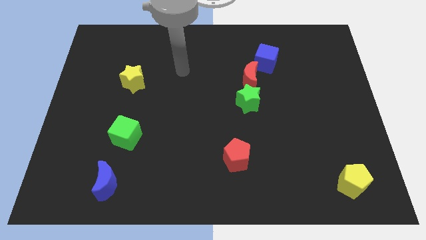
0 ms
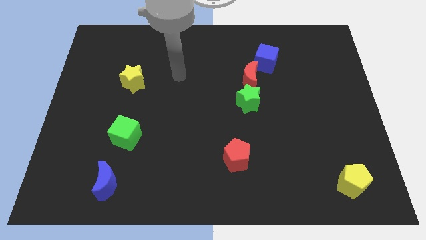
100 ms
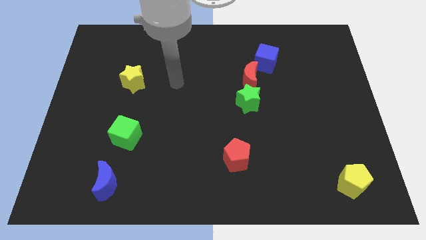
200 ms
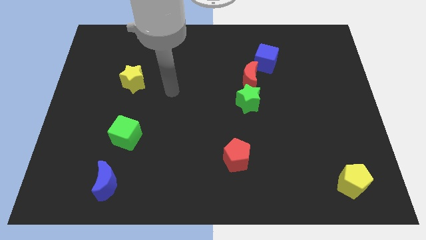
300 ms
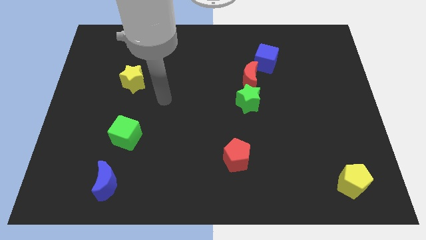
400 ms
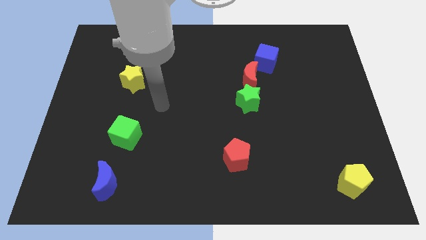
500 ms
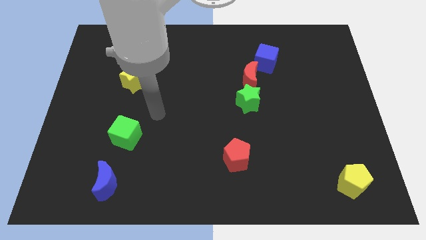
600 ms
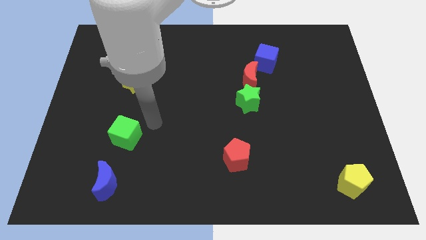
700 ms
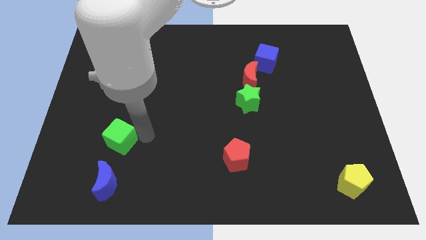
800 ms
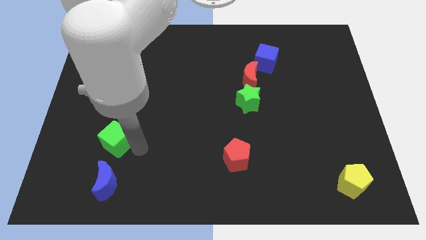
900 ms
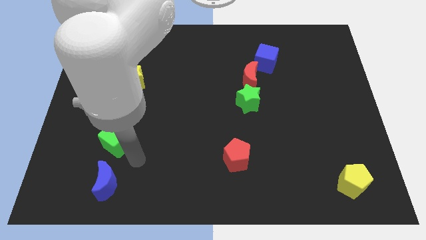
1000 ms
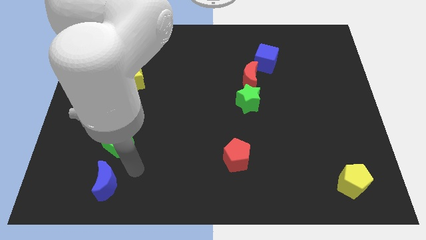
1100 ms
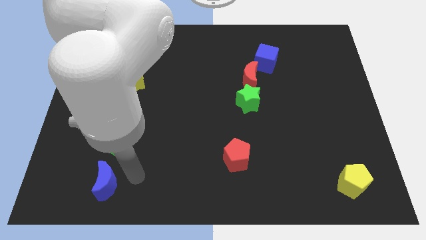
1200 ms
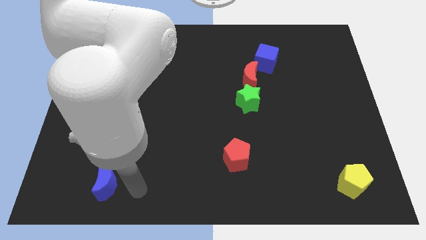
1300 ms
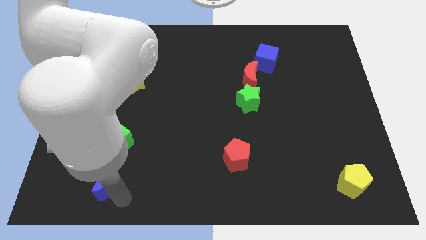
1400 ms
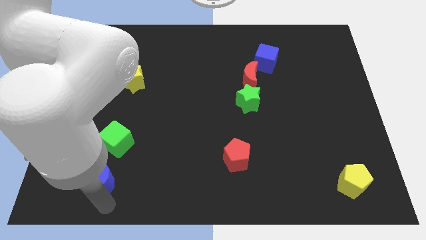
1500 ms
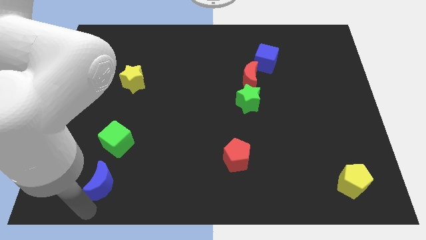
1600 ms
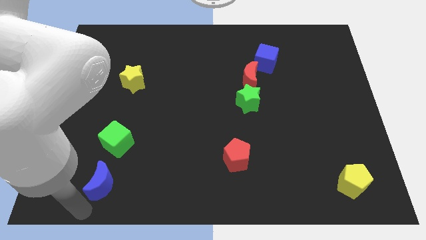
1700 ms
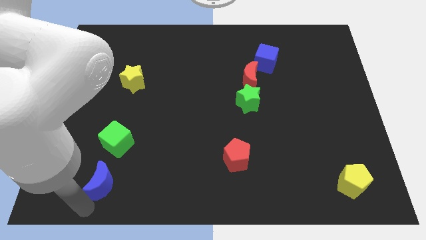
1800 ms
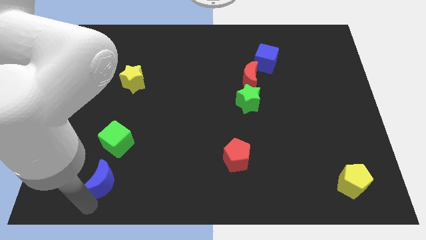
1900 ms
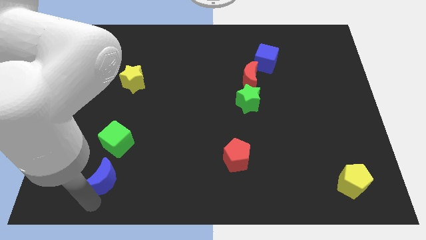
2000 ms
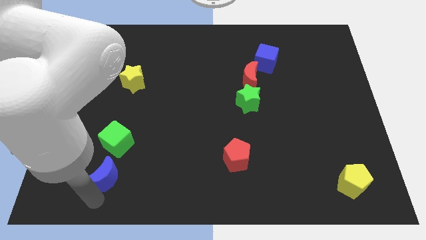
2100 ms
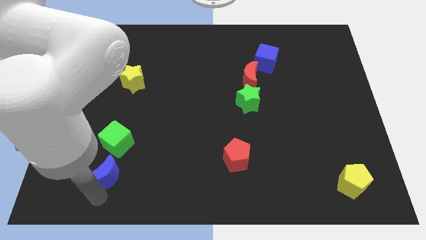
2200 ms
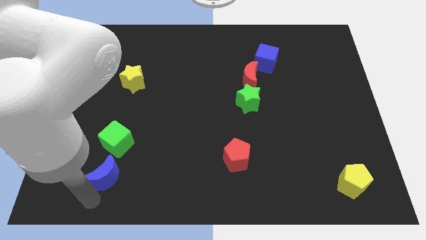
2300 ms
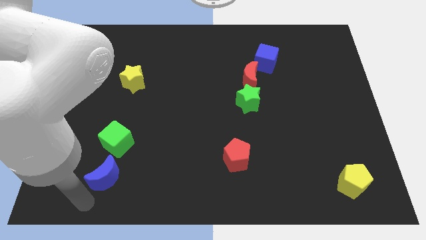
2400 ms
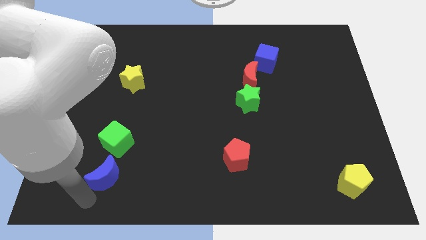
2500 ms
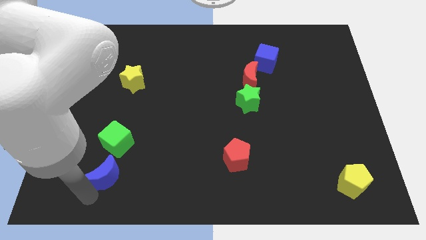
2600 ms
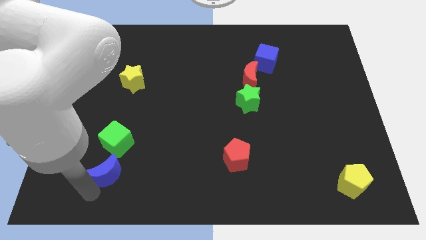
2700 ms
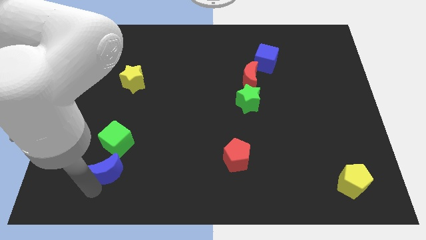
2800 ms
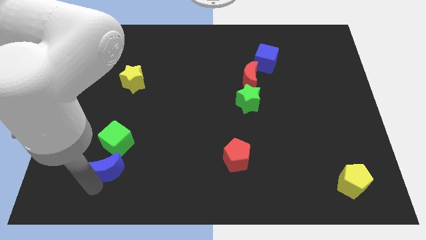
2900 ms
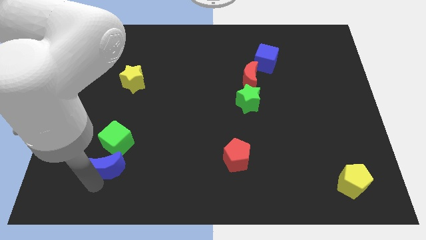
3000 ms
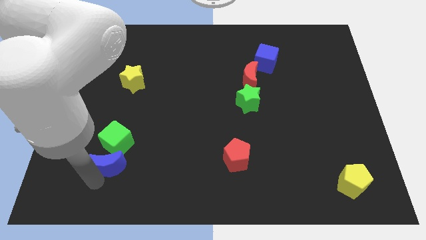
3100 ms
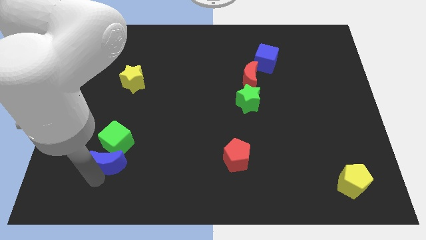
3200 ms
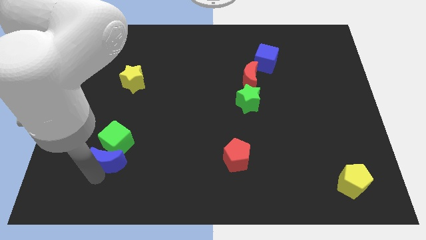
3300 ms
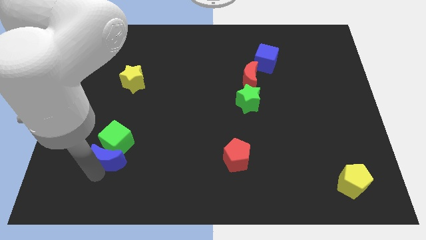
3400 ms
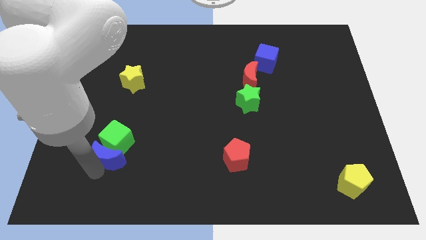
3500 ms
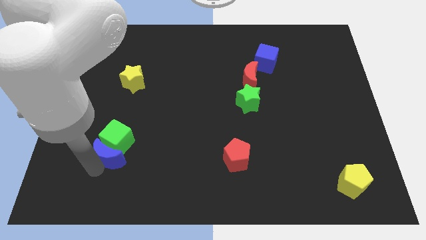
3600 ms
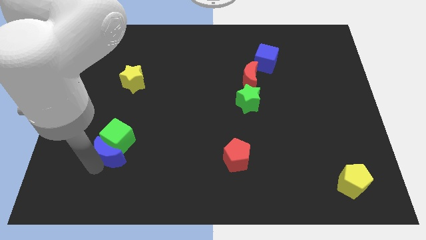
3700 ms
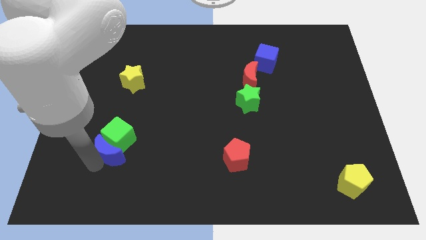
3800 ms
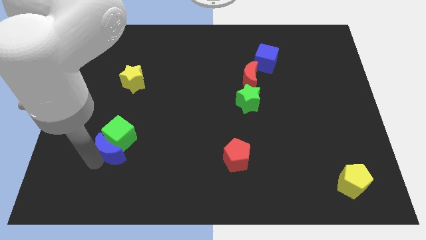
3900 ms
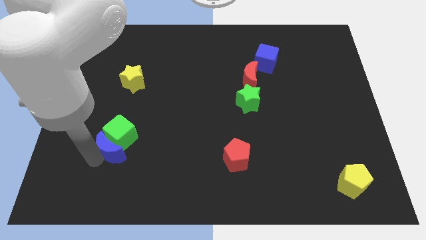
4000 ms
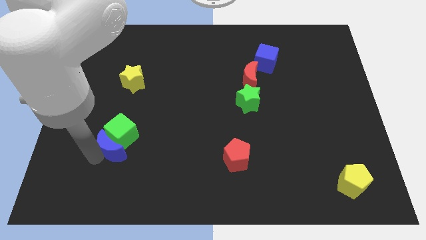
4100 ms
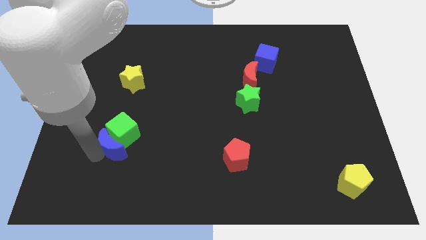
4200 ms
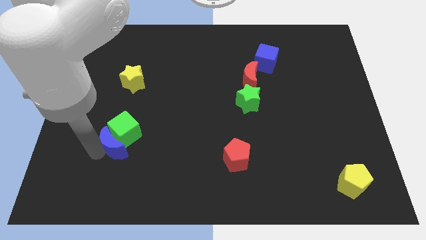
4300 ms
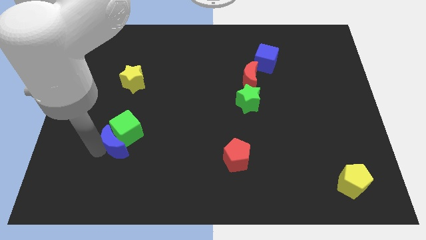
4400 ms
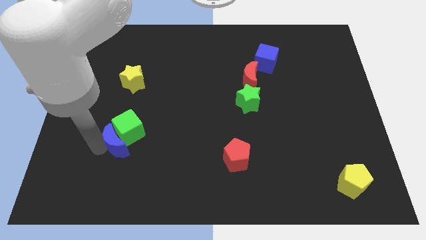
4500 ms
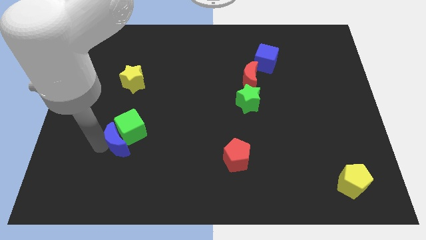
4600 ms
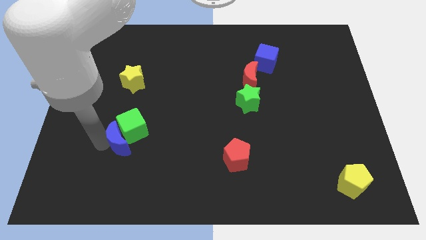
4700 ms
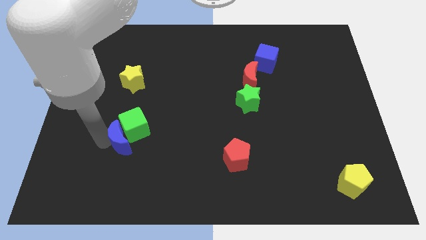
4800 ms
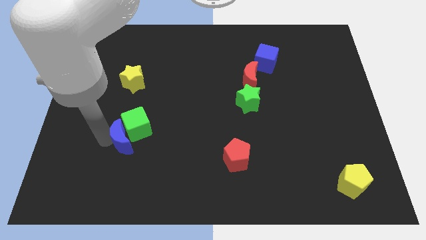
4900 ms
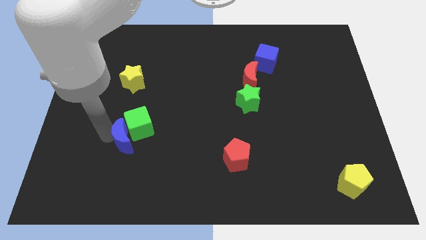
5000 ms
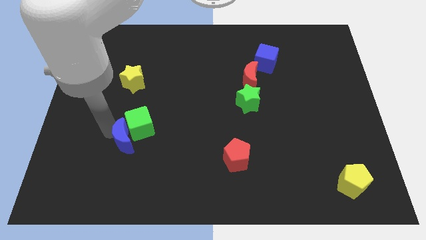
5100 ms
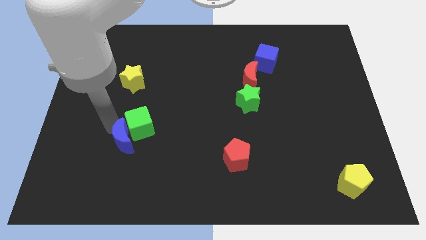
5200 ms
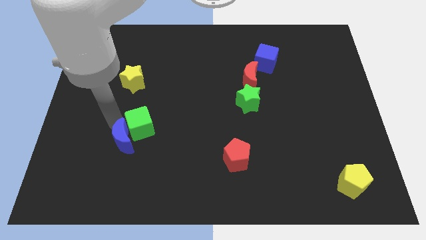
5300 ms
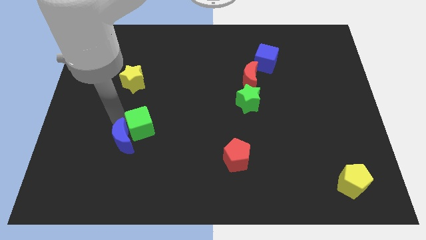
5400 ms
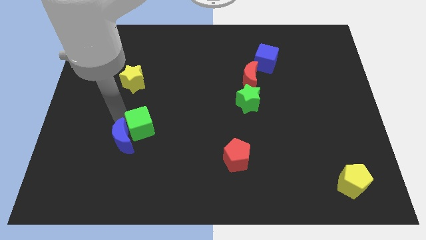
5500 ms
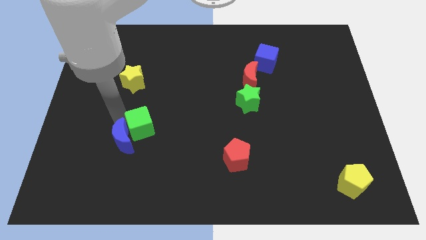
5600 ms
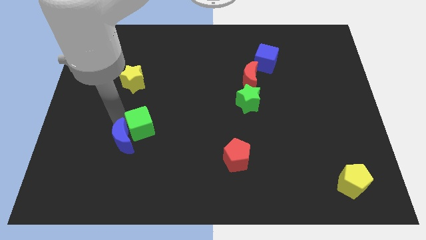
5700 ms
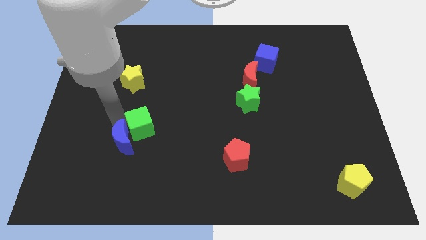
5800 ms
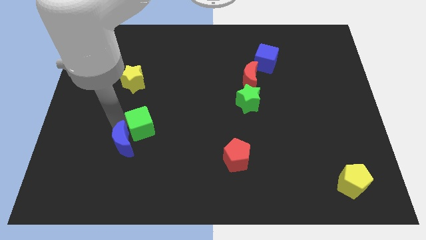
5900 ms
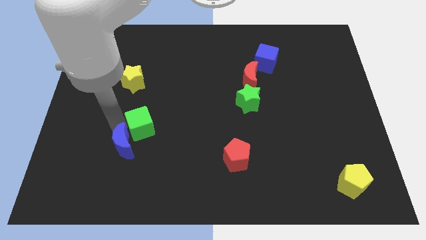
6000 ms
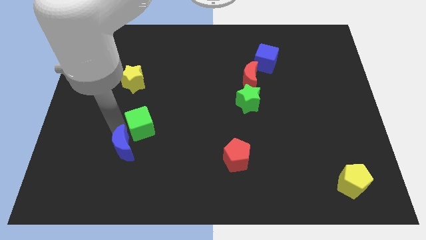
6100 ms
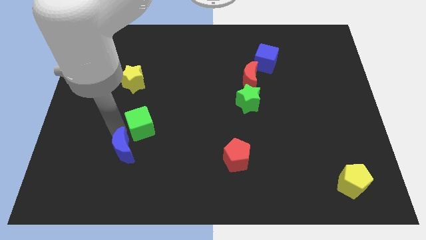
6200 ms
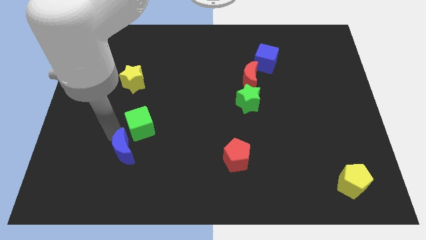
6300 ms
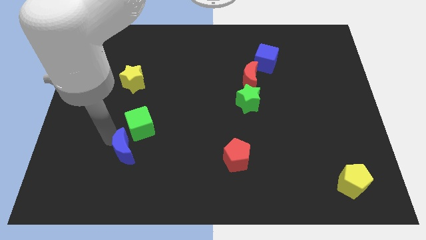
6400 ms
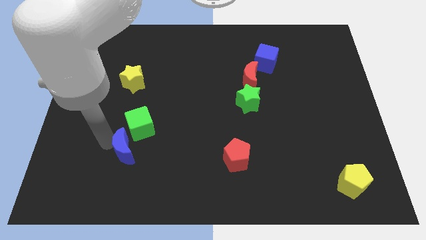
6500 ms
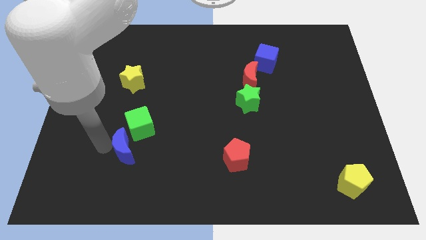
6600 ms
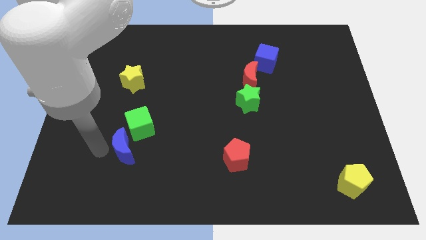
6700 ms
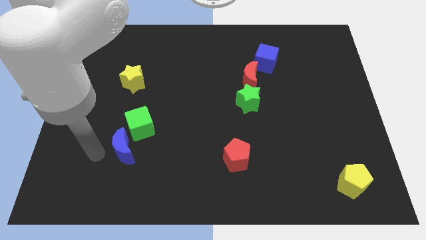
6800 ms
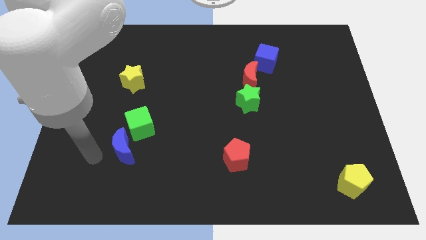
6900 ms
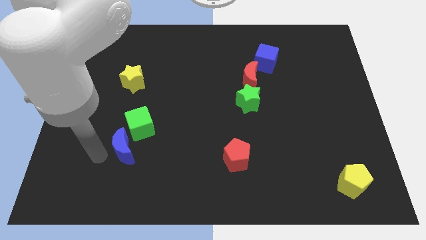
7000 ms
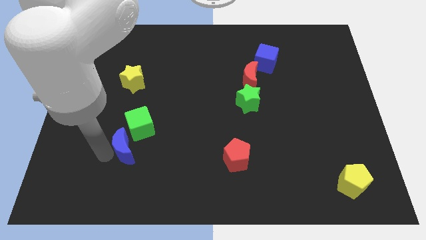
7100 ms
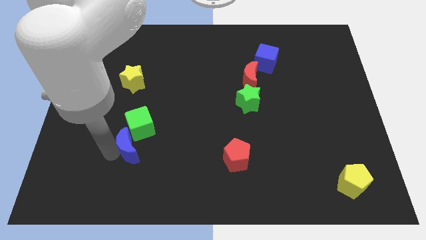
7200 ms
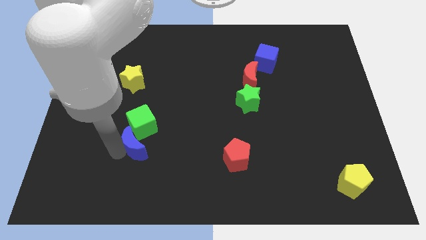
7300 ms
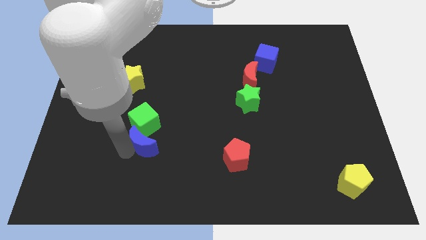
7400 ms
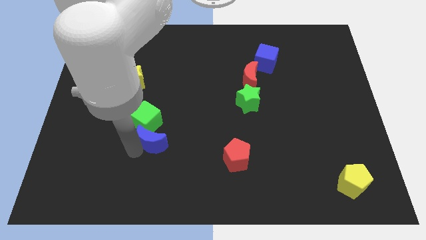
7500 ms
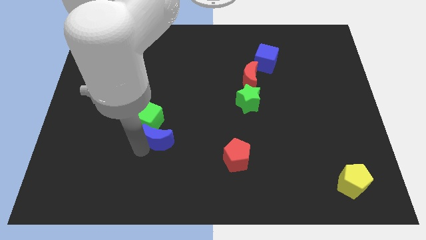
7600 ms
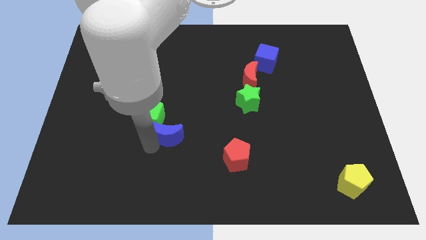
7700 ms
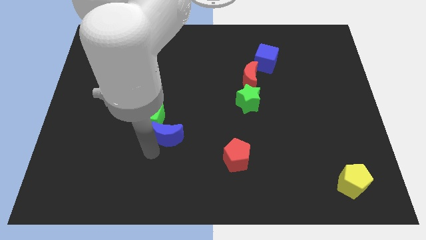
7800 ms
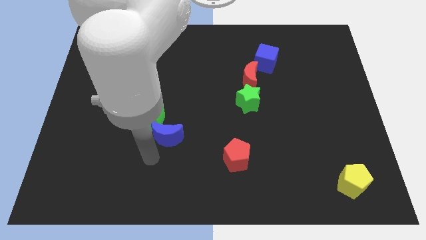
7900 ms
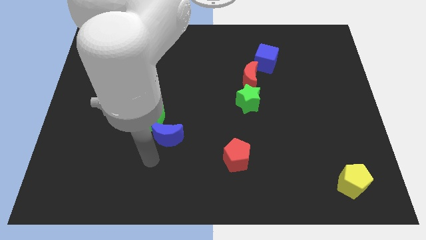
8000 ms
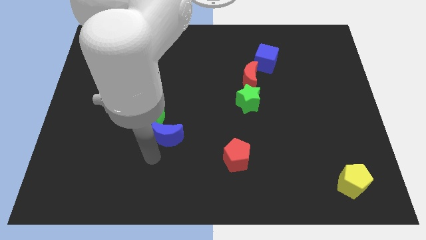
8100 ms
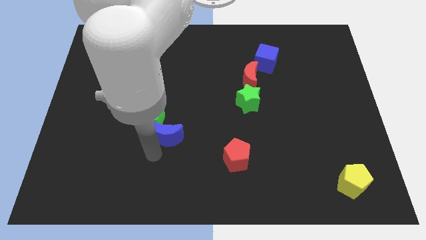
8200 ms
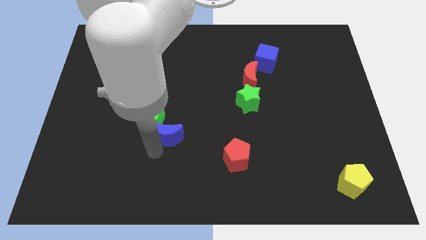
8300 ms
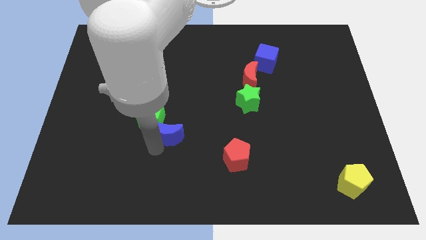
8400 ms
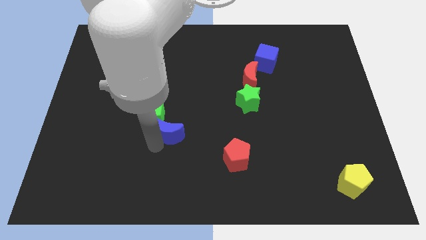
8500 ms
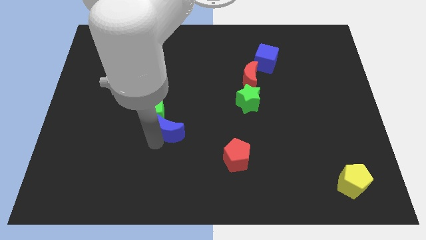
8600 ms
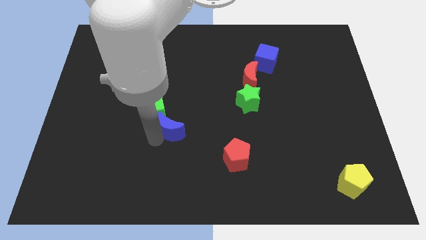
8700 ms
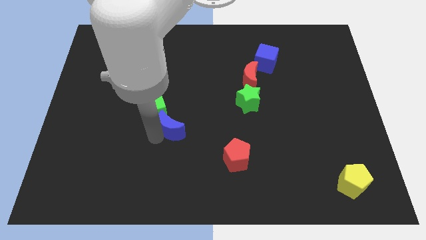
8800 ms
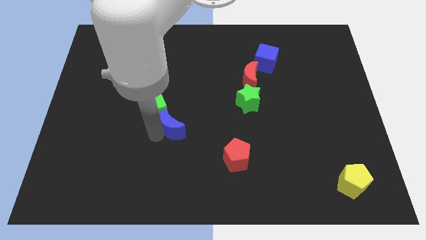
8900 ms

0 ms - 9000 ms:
move the blue moon to the center
